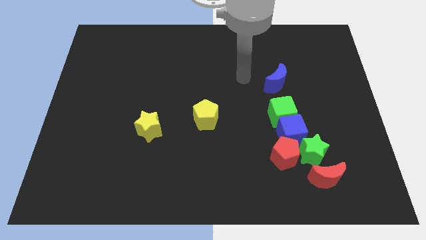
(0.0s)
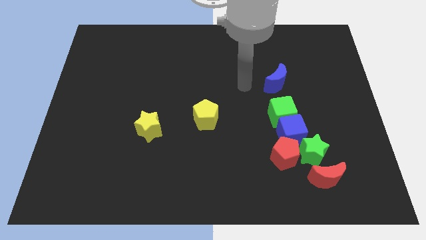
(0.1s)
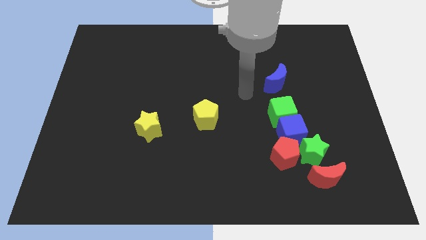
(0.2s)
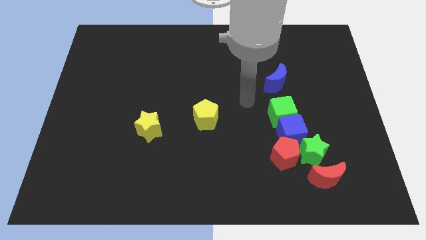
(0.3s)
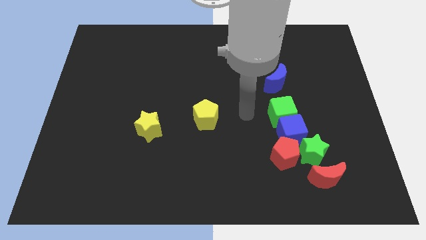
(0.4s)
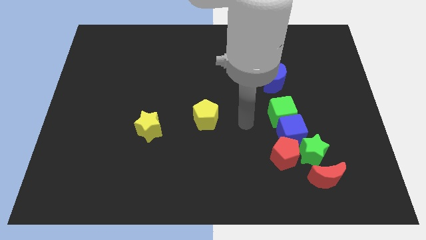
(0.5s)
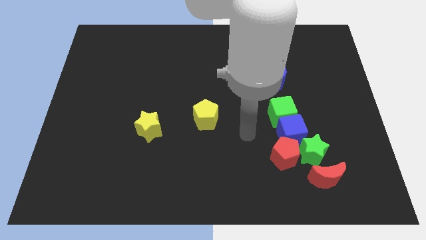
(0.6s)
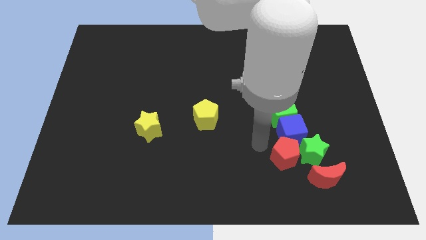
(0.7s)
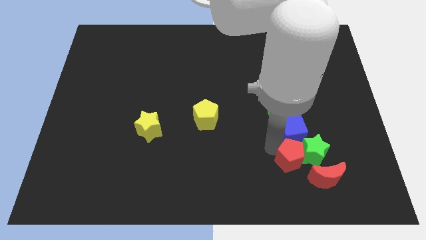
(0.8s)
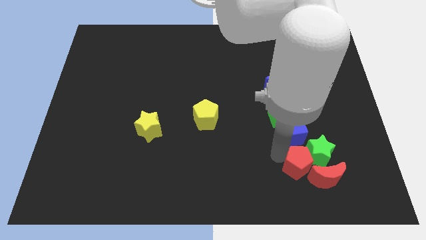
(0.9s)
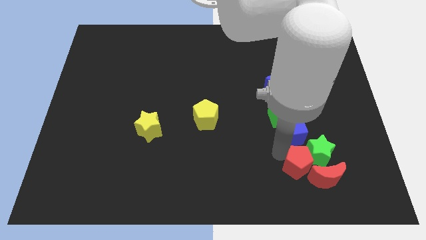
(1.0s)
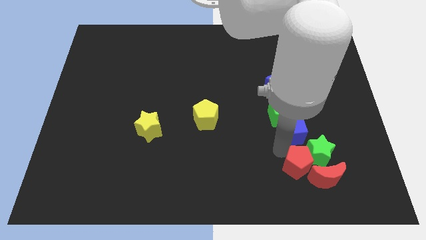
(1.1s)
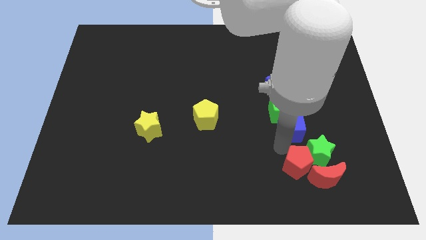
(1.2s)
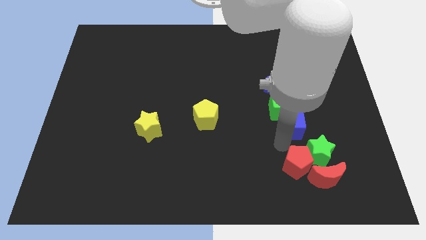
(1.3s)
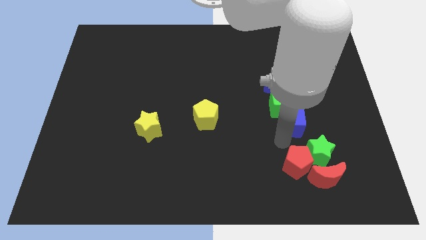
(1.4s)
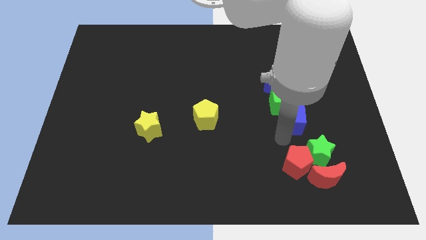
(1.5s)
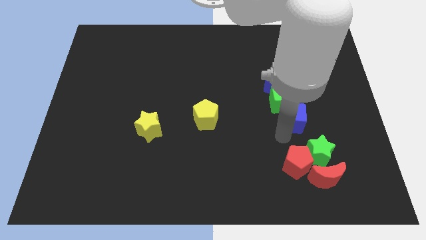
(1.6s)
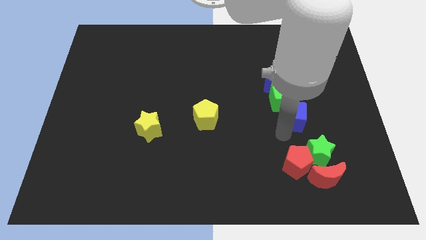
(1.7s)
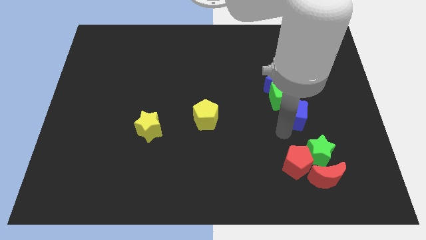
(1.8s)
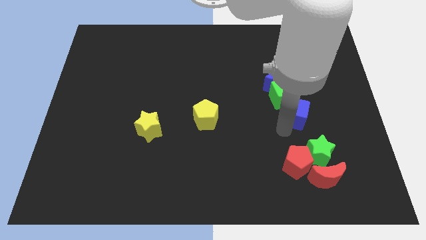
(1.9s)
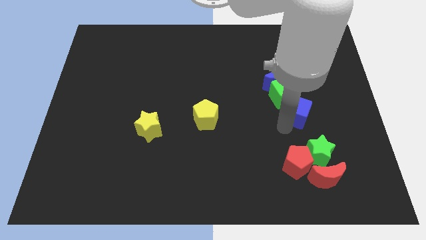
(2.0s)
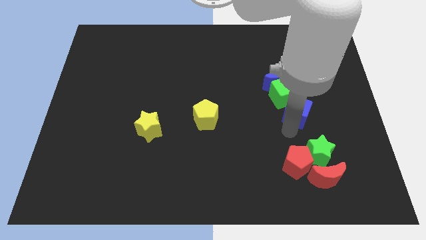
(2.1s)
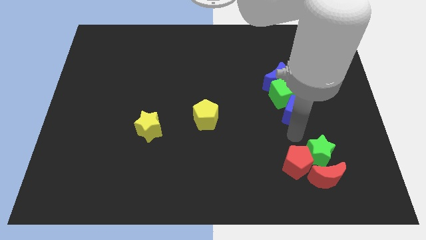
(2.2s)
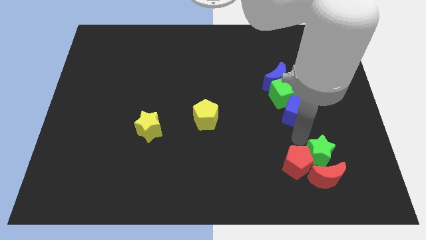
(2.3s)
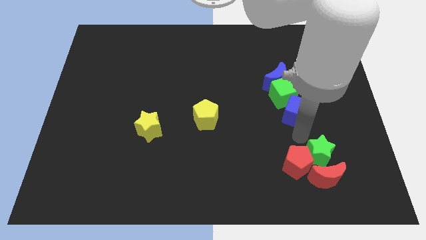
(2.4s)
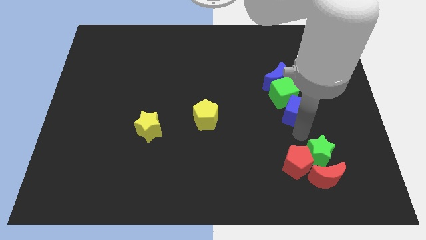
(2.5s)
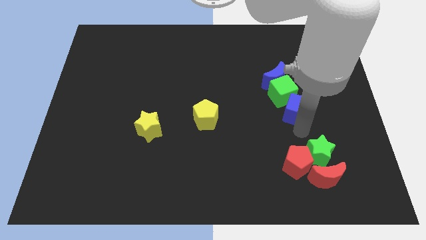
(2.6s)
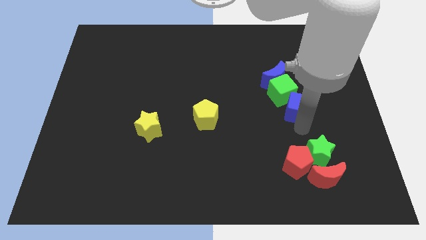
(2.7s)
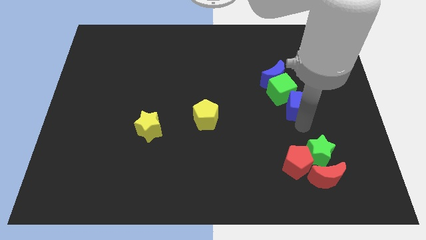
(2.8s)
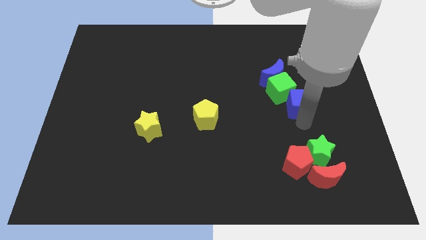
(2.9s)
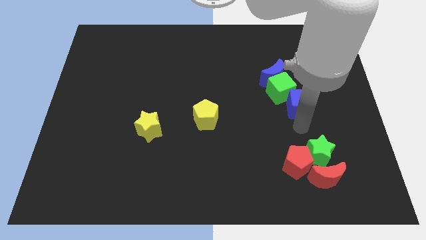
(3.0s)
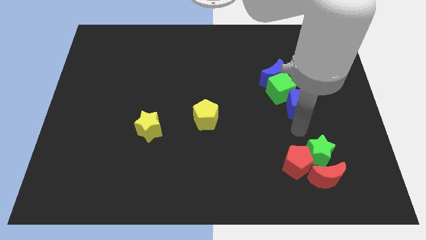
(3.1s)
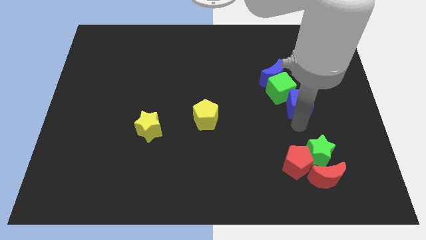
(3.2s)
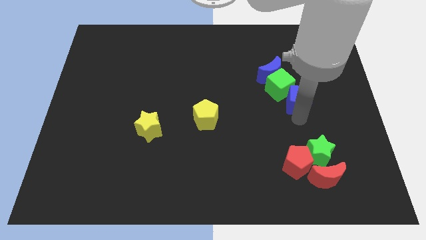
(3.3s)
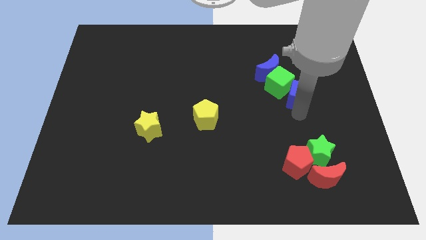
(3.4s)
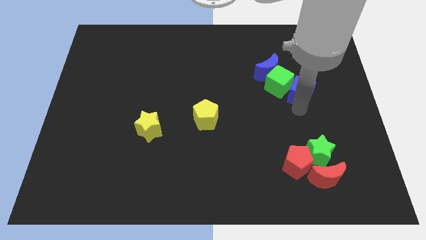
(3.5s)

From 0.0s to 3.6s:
separate the blue cube from the group

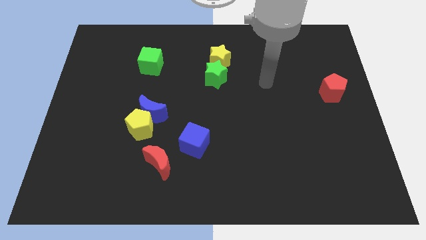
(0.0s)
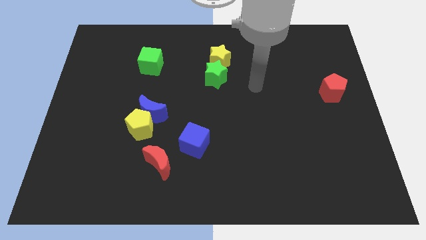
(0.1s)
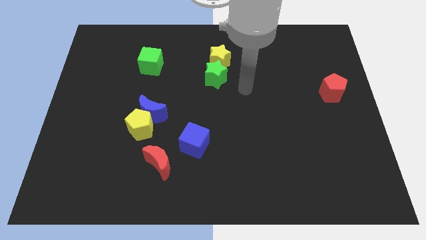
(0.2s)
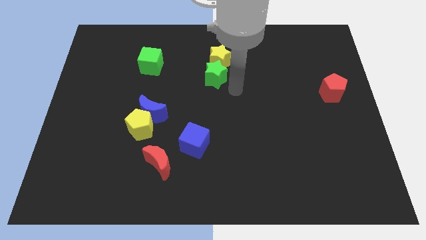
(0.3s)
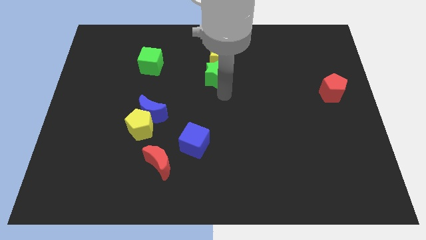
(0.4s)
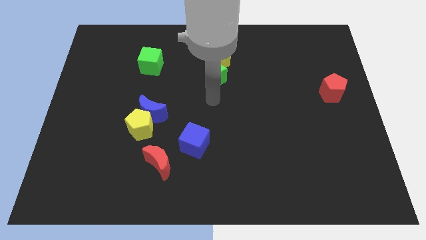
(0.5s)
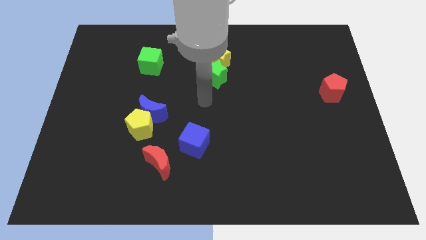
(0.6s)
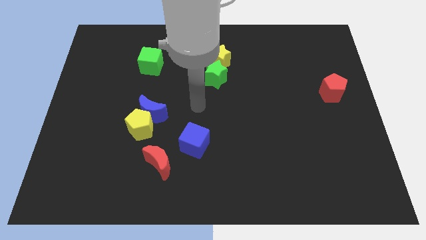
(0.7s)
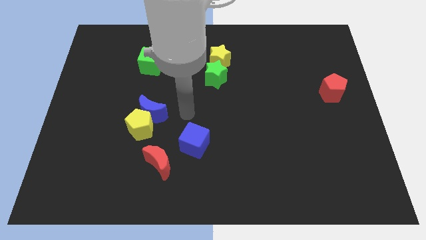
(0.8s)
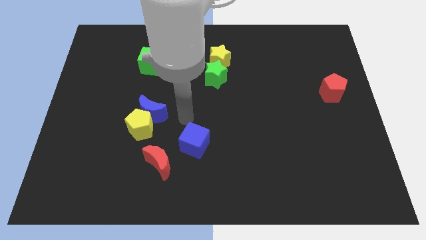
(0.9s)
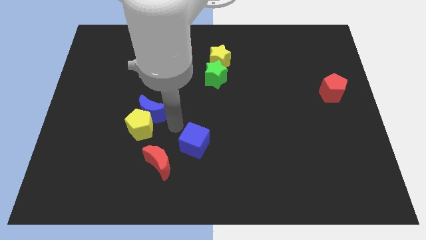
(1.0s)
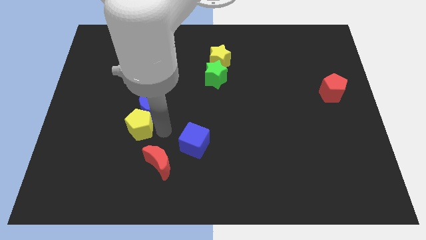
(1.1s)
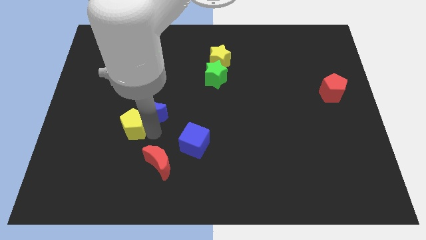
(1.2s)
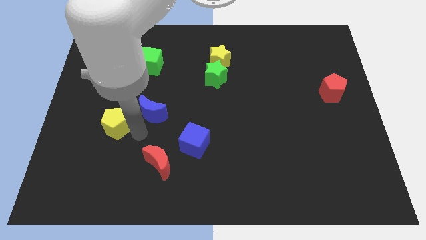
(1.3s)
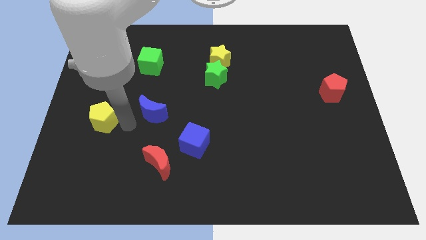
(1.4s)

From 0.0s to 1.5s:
move the blue moon away from the yellow pentagon

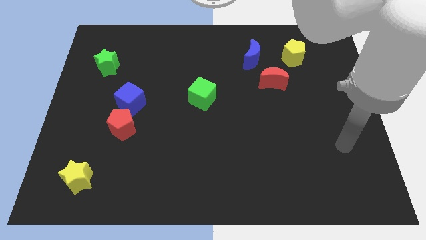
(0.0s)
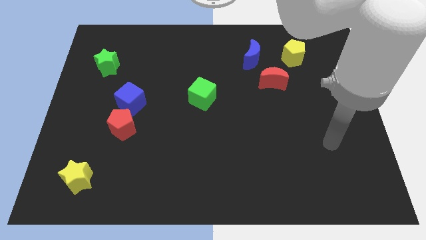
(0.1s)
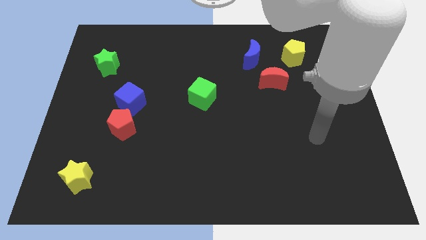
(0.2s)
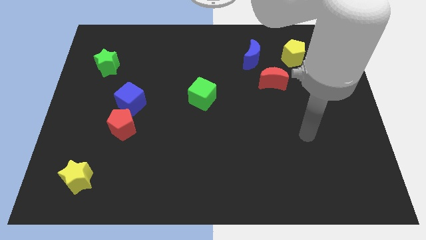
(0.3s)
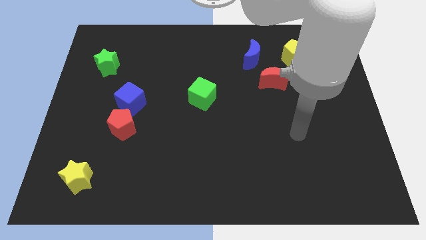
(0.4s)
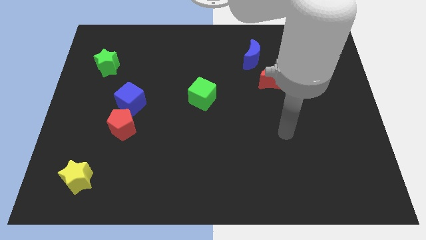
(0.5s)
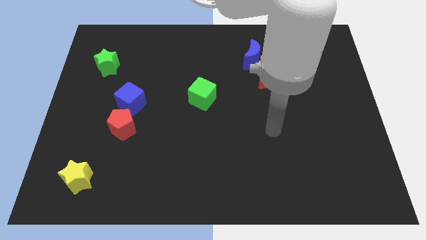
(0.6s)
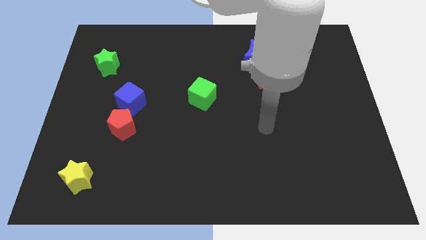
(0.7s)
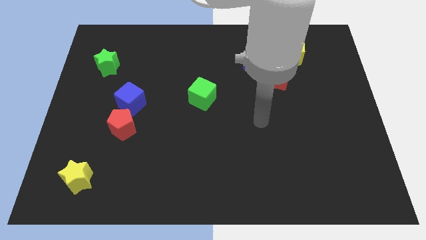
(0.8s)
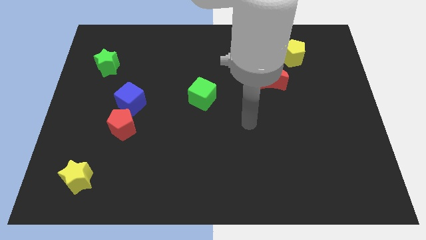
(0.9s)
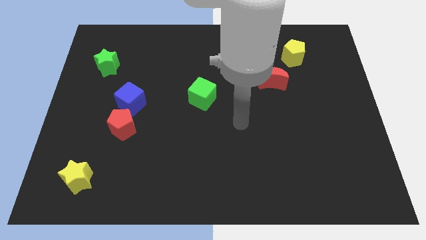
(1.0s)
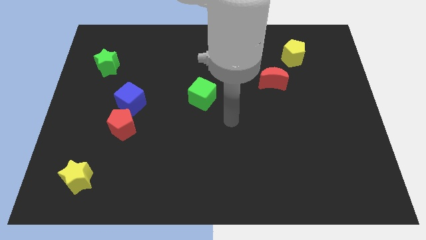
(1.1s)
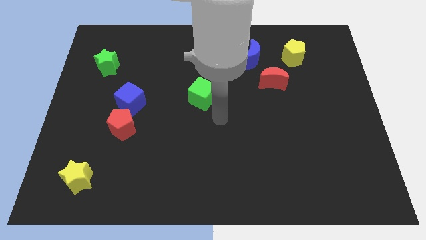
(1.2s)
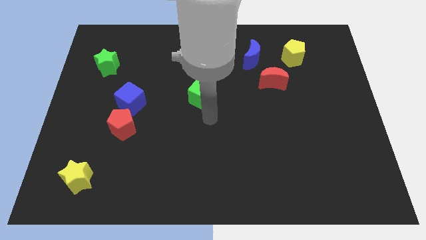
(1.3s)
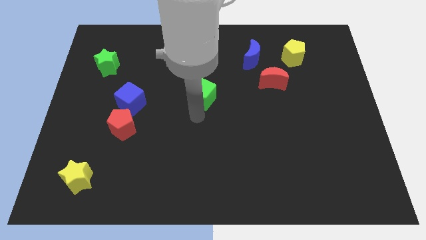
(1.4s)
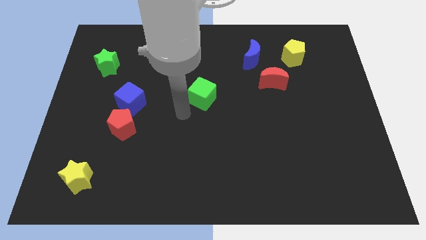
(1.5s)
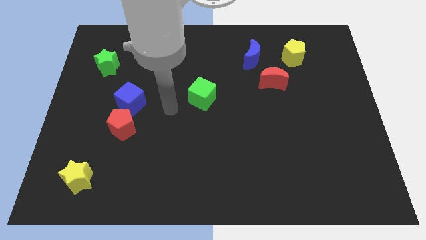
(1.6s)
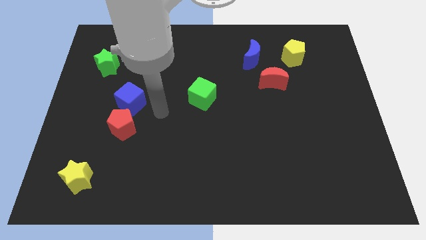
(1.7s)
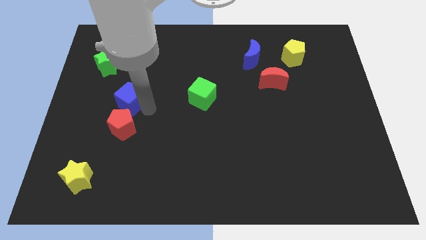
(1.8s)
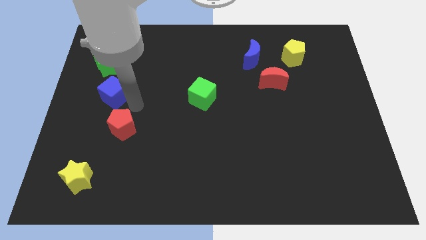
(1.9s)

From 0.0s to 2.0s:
separate the red pentagon from the blue cube

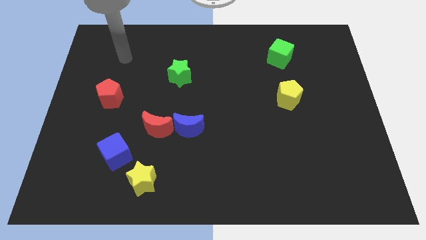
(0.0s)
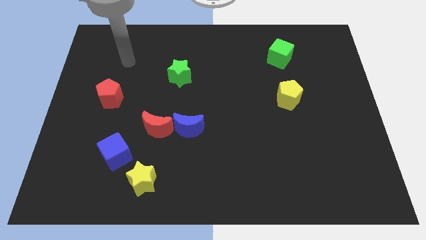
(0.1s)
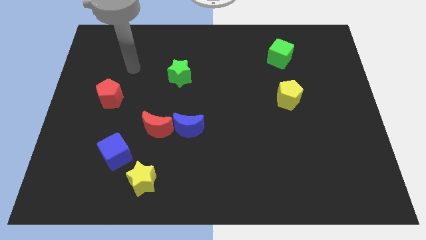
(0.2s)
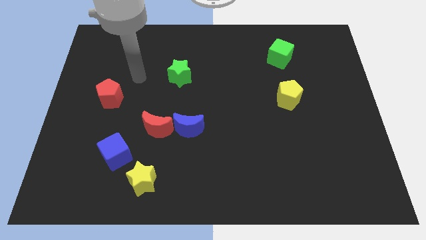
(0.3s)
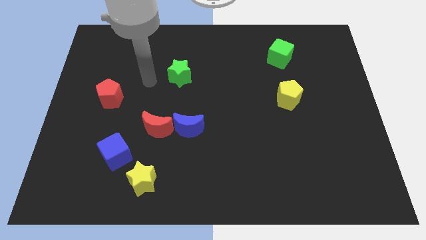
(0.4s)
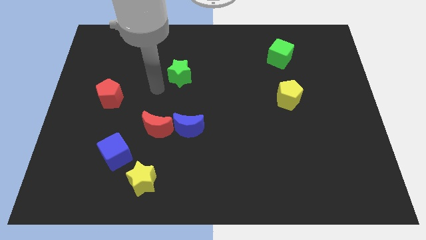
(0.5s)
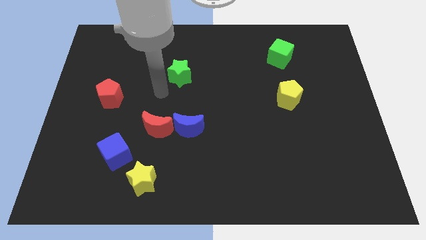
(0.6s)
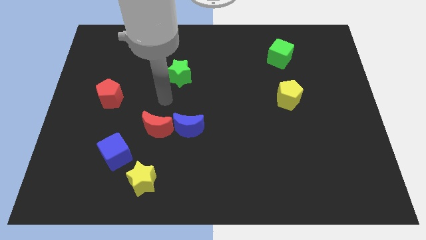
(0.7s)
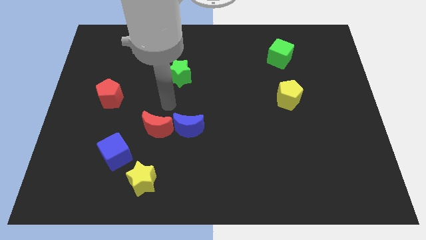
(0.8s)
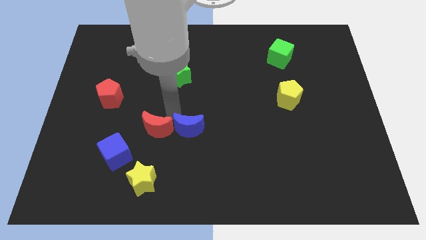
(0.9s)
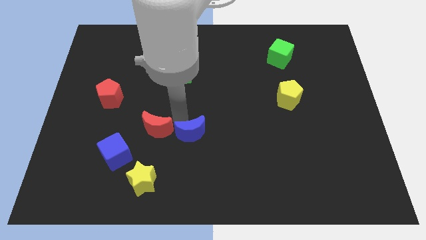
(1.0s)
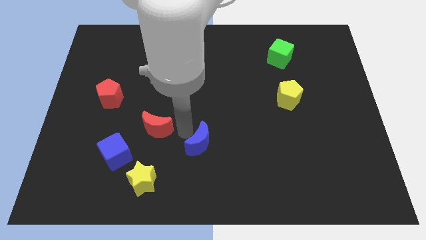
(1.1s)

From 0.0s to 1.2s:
move the red moon away from the blue moon

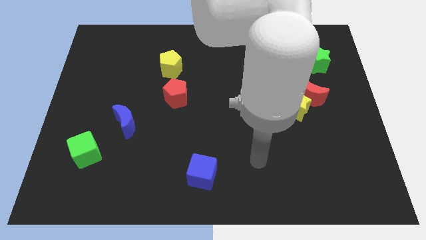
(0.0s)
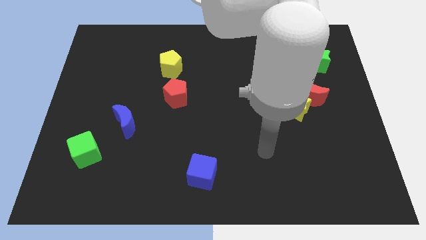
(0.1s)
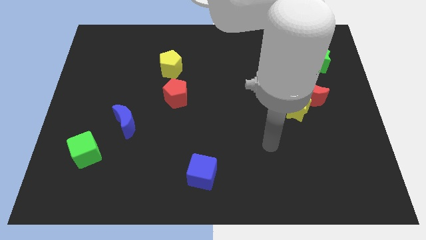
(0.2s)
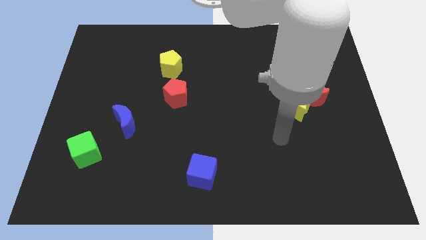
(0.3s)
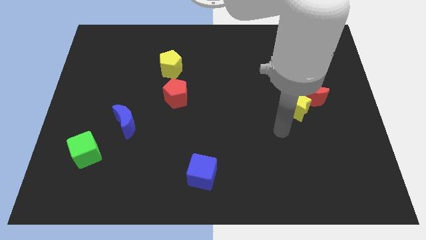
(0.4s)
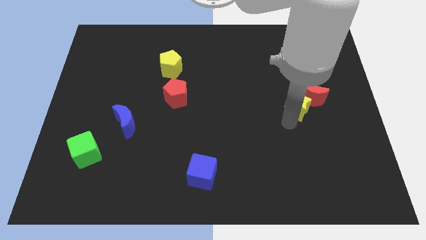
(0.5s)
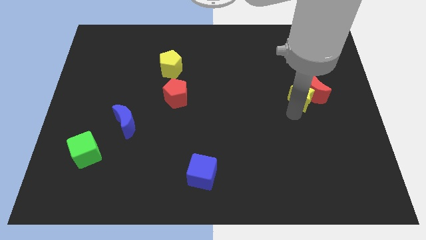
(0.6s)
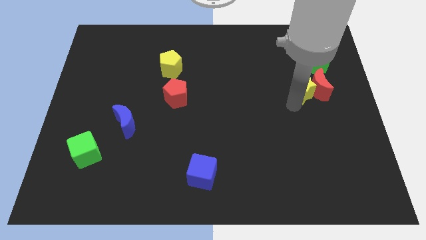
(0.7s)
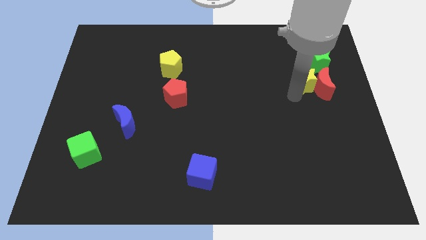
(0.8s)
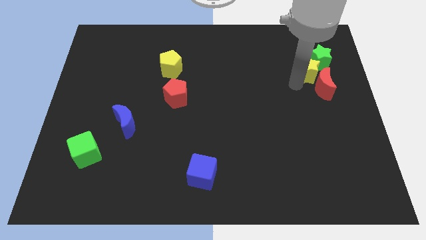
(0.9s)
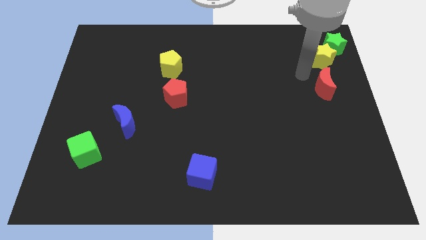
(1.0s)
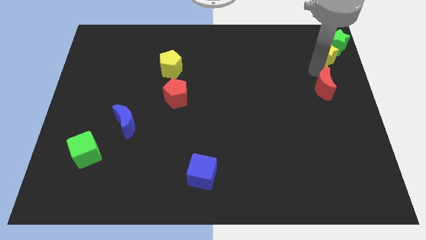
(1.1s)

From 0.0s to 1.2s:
pull the red moon apart from the yellow star
